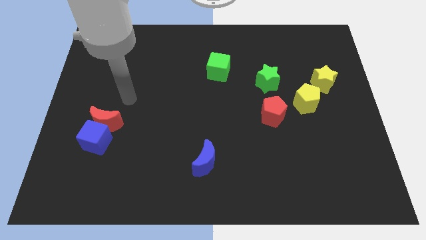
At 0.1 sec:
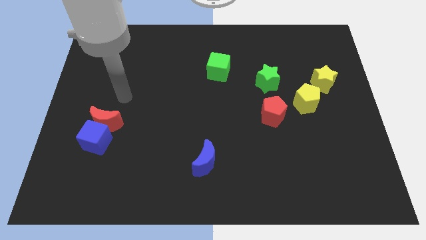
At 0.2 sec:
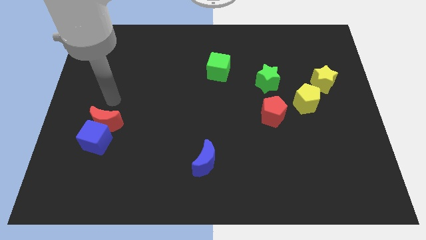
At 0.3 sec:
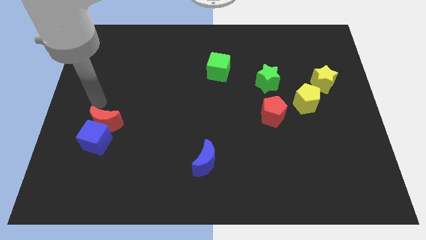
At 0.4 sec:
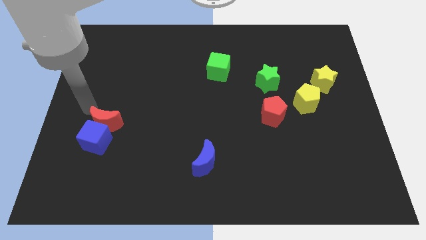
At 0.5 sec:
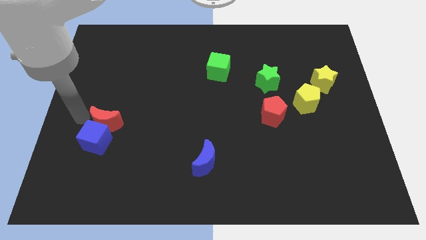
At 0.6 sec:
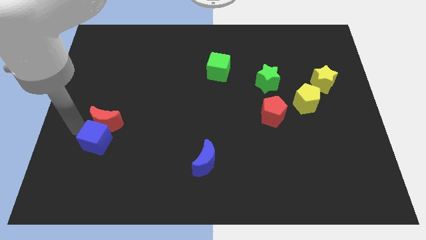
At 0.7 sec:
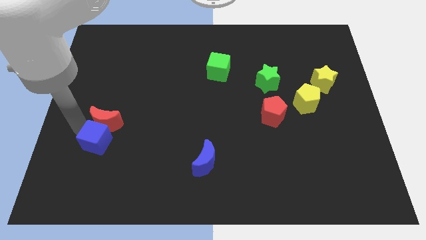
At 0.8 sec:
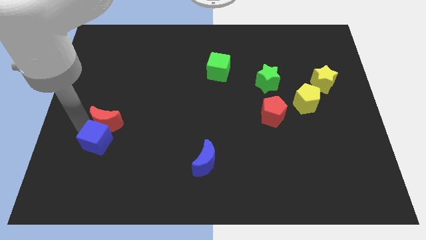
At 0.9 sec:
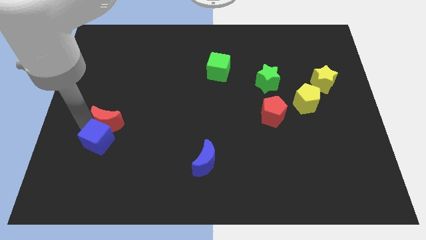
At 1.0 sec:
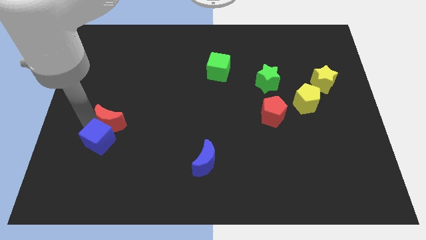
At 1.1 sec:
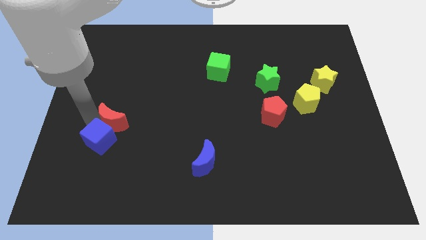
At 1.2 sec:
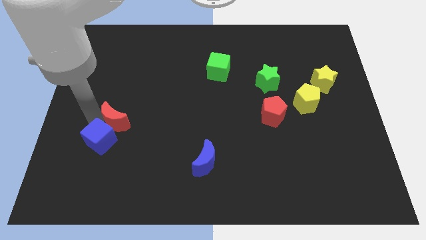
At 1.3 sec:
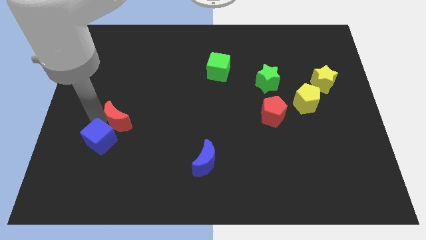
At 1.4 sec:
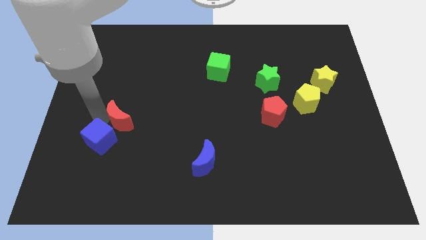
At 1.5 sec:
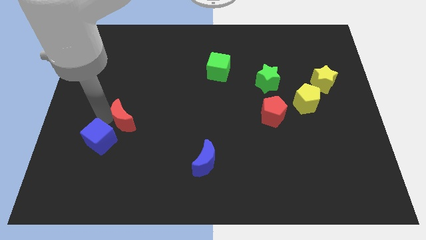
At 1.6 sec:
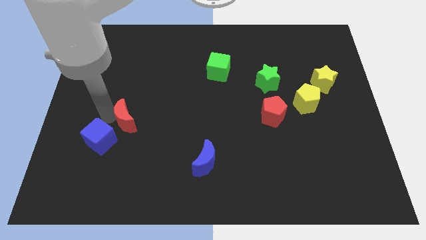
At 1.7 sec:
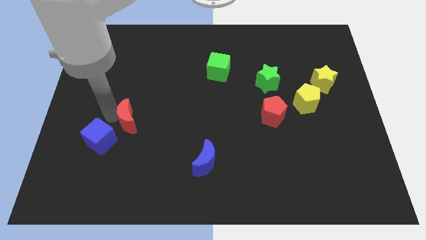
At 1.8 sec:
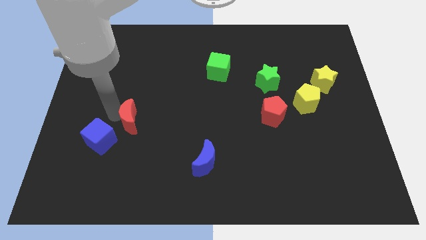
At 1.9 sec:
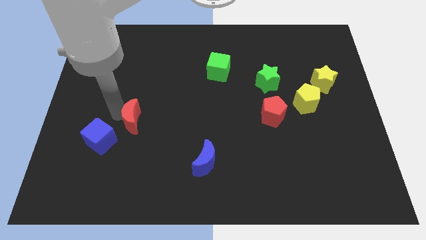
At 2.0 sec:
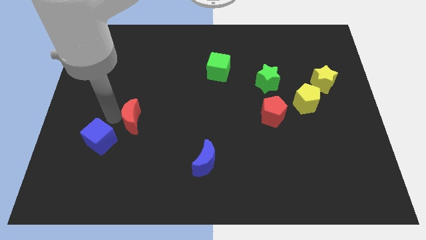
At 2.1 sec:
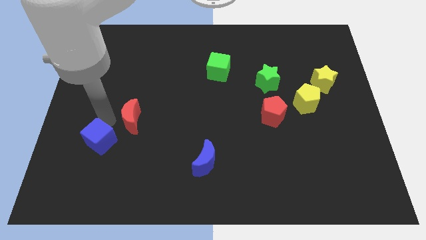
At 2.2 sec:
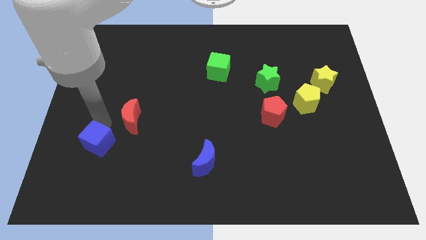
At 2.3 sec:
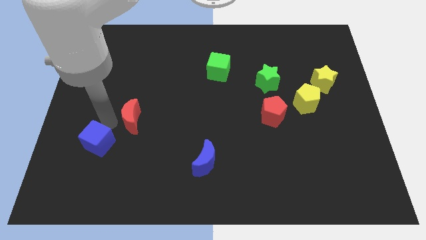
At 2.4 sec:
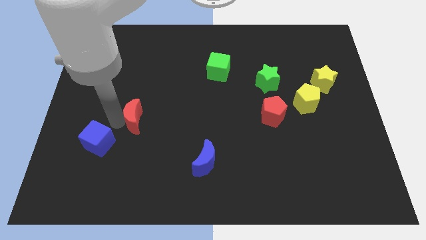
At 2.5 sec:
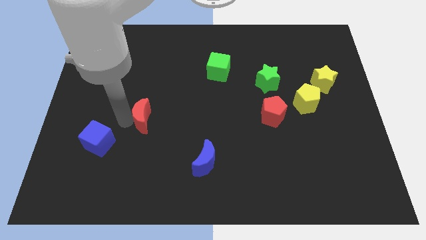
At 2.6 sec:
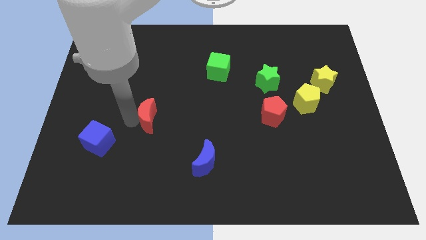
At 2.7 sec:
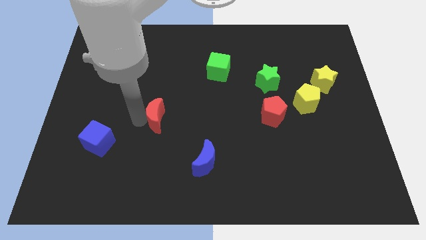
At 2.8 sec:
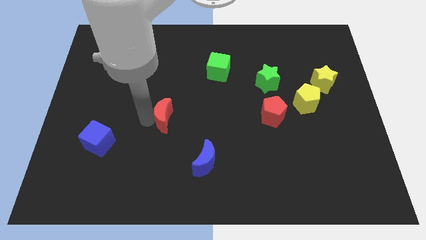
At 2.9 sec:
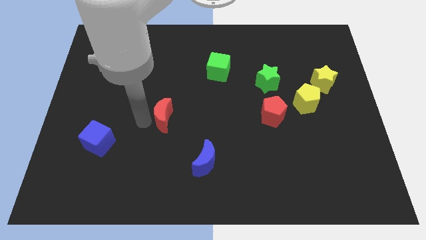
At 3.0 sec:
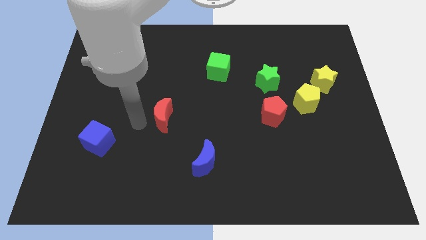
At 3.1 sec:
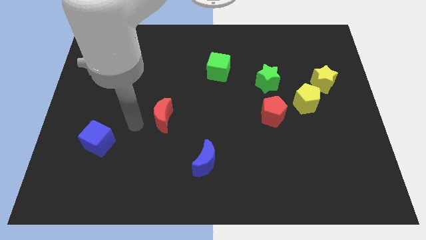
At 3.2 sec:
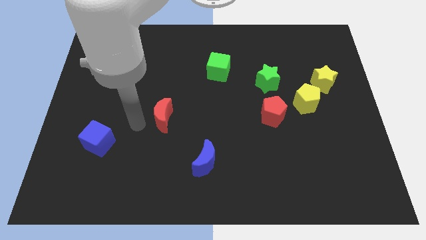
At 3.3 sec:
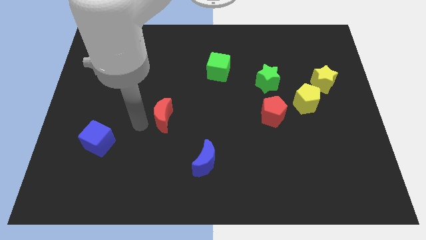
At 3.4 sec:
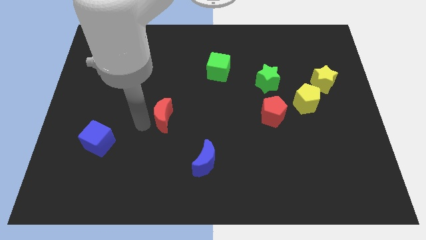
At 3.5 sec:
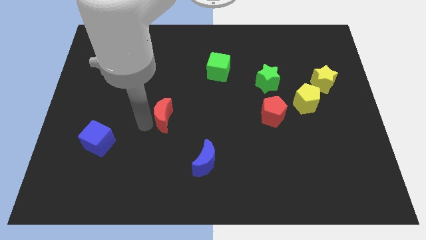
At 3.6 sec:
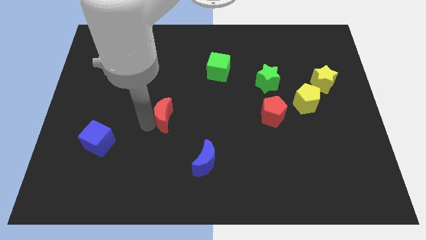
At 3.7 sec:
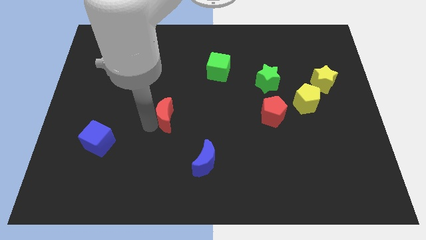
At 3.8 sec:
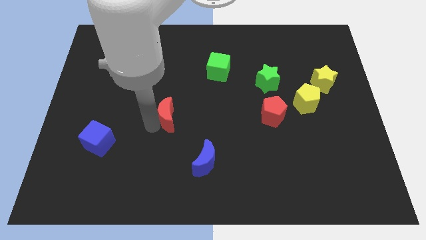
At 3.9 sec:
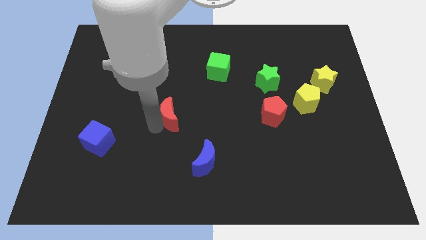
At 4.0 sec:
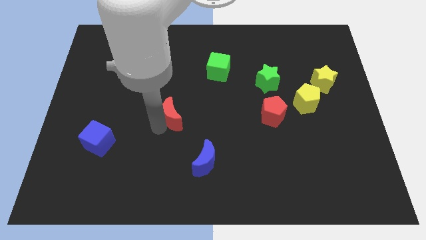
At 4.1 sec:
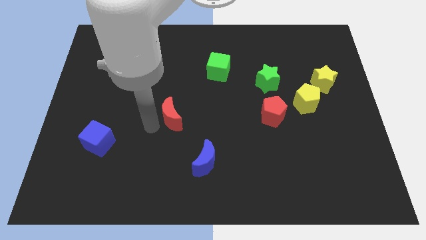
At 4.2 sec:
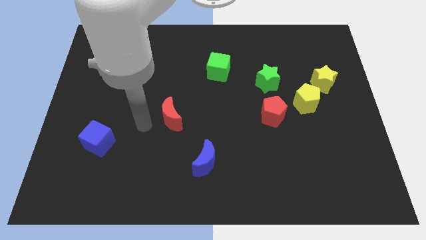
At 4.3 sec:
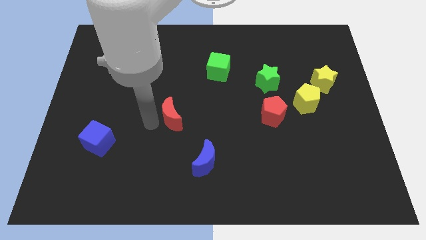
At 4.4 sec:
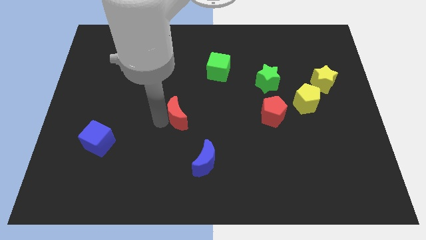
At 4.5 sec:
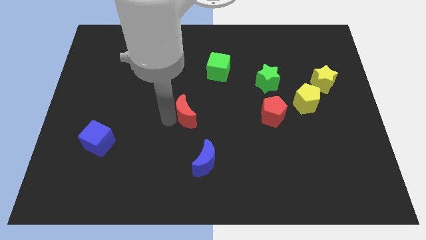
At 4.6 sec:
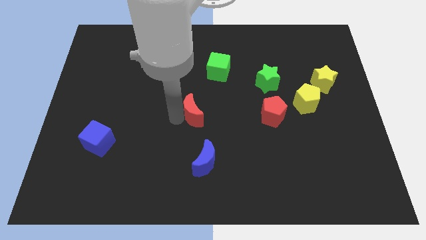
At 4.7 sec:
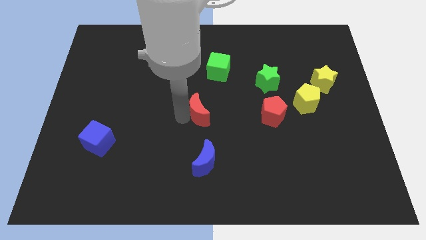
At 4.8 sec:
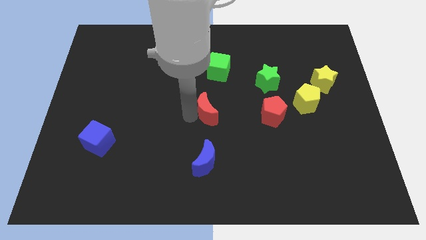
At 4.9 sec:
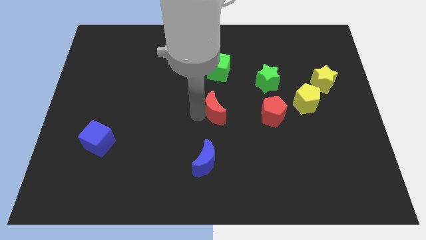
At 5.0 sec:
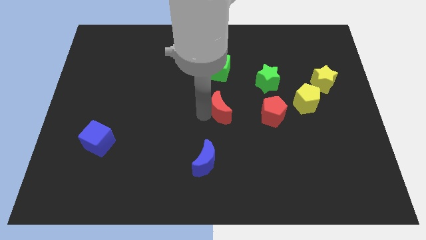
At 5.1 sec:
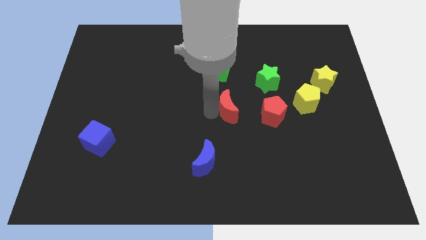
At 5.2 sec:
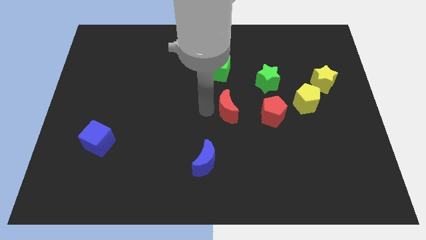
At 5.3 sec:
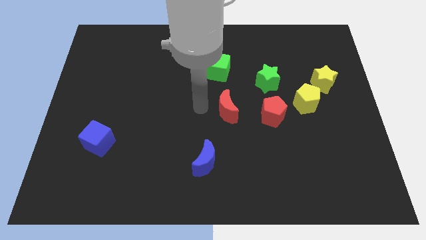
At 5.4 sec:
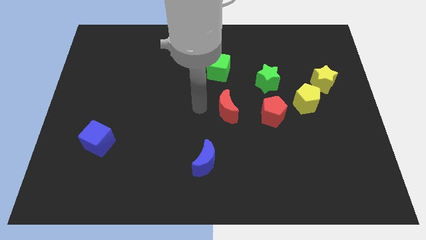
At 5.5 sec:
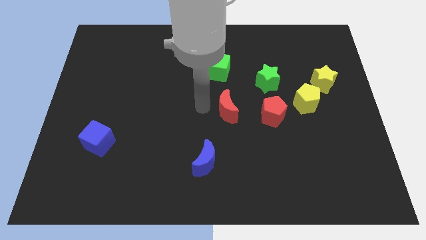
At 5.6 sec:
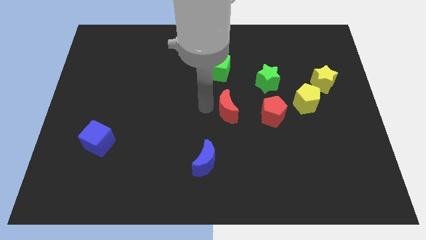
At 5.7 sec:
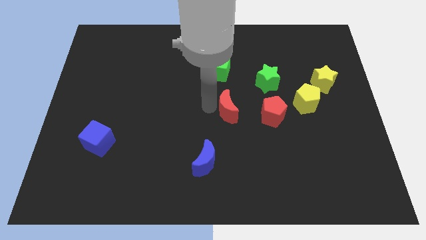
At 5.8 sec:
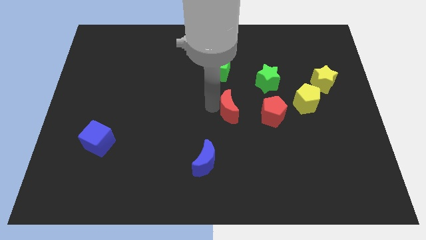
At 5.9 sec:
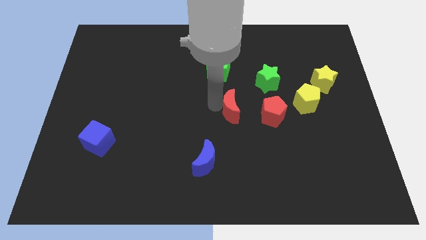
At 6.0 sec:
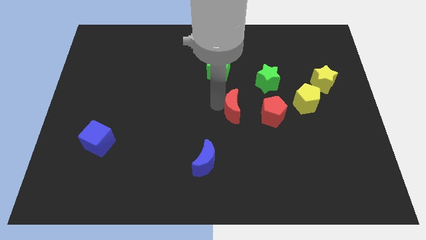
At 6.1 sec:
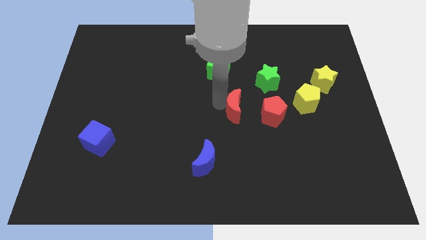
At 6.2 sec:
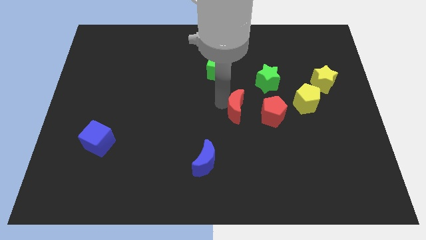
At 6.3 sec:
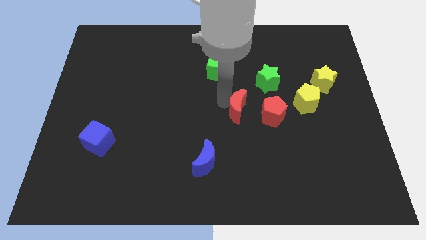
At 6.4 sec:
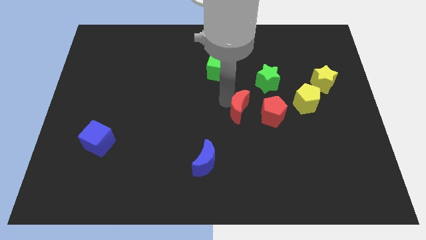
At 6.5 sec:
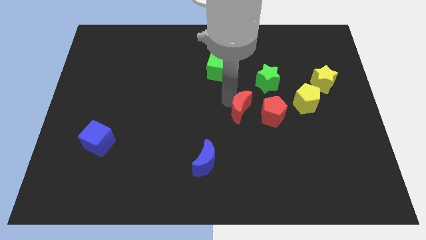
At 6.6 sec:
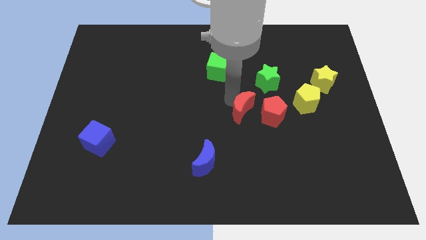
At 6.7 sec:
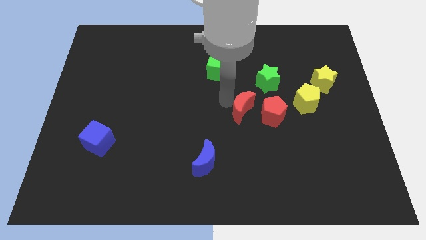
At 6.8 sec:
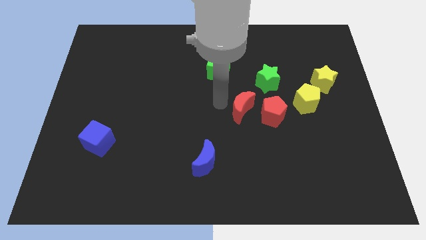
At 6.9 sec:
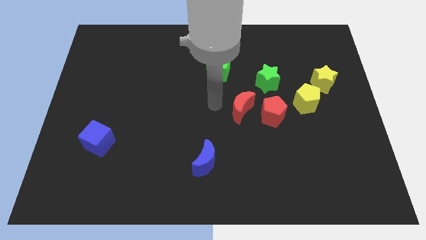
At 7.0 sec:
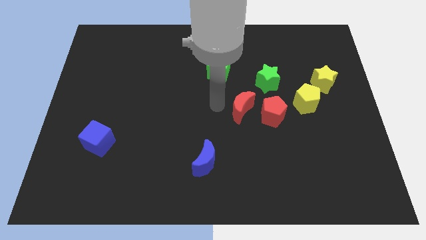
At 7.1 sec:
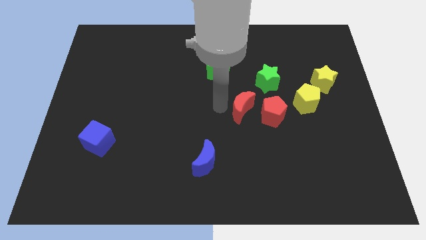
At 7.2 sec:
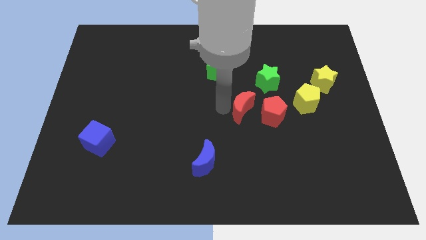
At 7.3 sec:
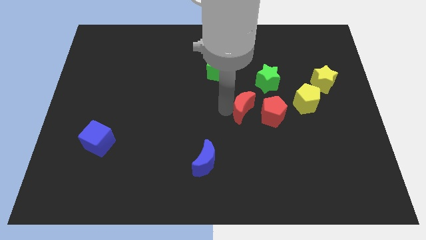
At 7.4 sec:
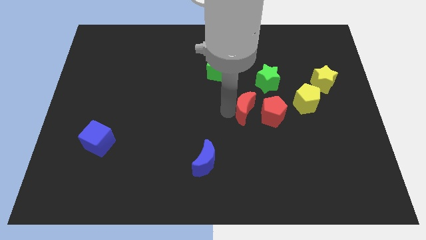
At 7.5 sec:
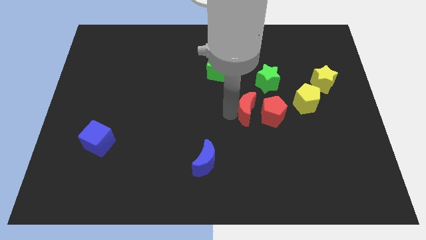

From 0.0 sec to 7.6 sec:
move the red moon towards the red pentagon
